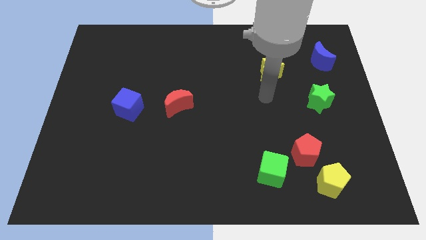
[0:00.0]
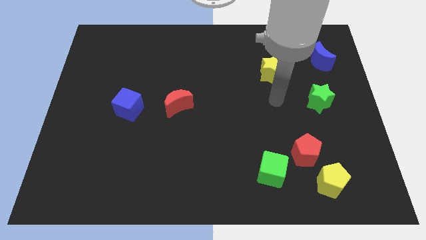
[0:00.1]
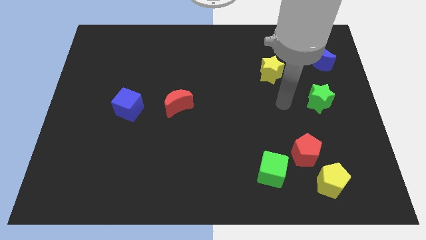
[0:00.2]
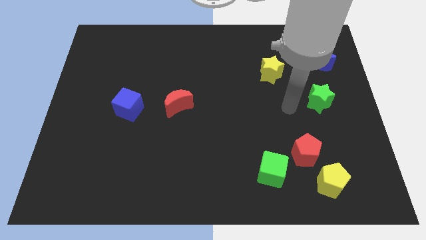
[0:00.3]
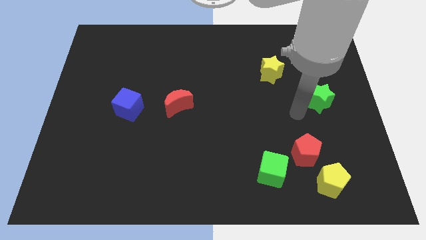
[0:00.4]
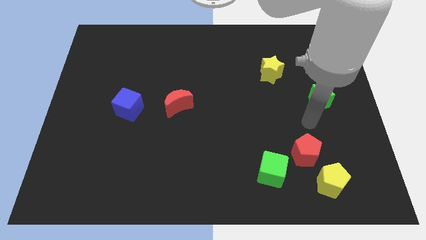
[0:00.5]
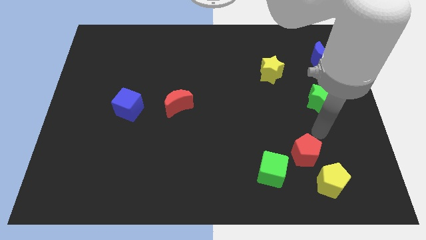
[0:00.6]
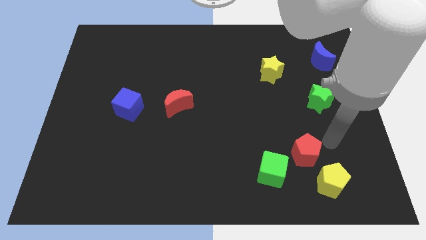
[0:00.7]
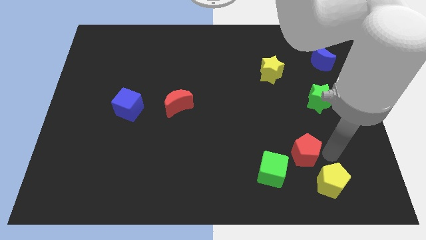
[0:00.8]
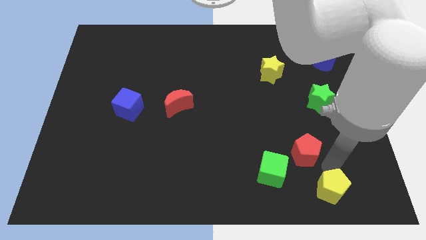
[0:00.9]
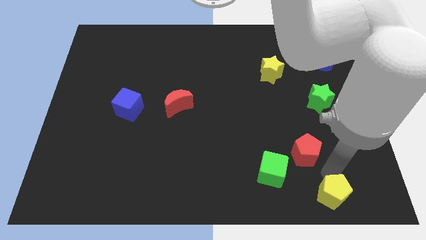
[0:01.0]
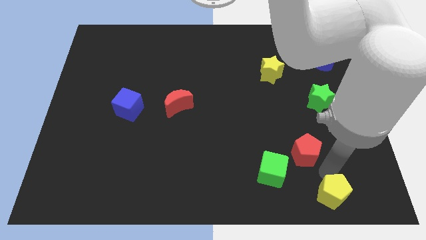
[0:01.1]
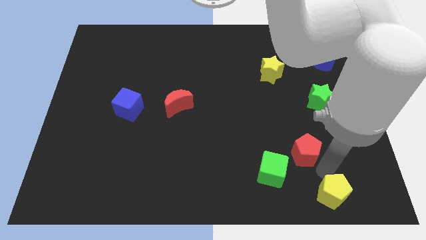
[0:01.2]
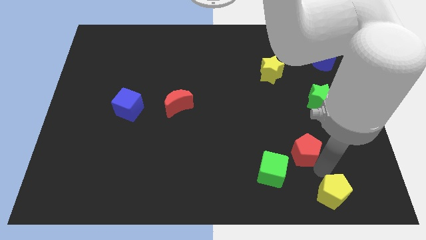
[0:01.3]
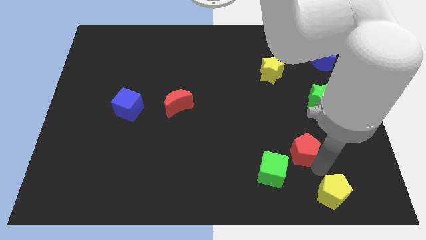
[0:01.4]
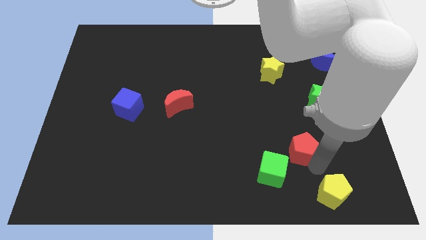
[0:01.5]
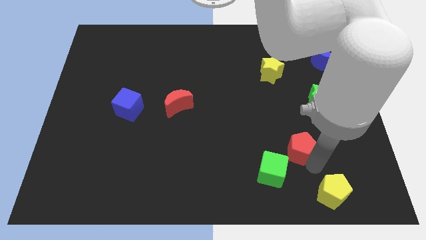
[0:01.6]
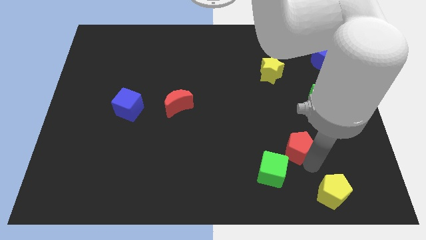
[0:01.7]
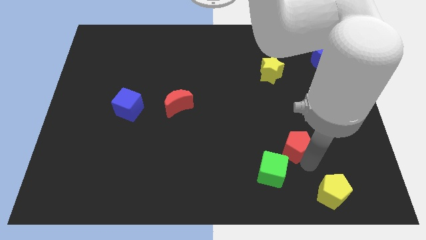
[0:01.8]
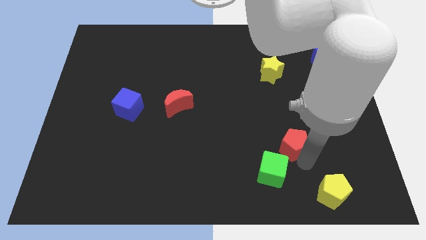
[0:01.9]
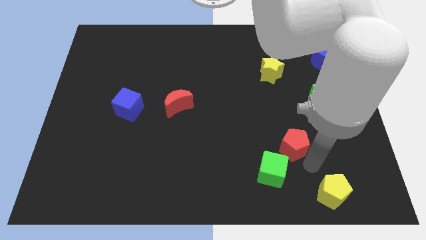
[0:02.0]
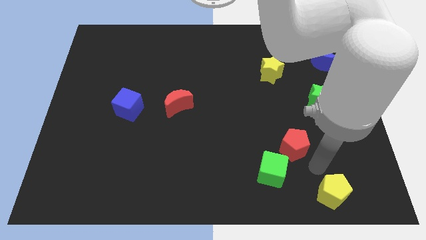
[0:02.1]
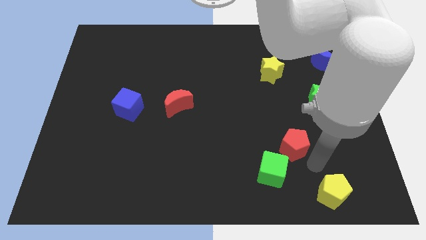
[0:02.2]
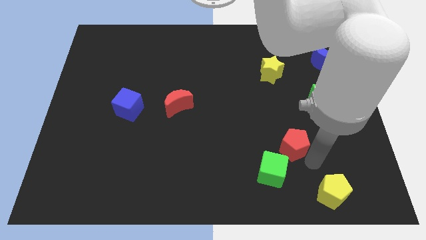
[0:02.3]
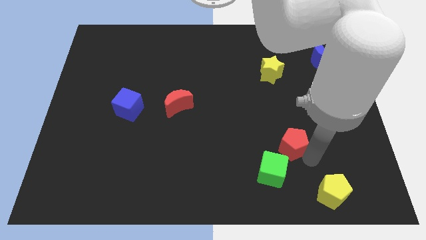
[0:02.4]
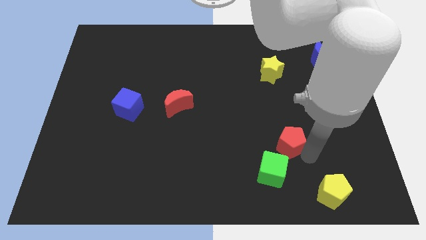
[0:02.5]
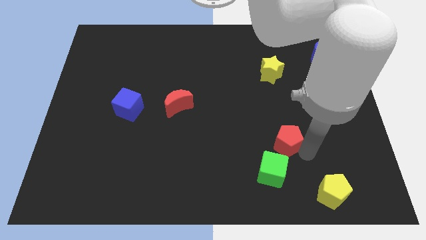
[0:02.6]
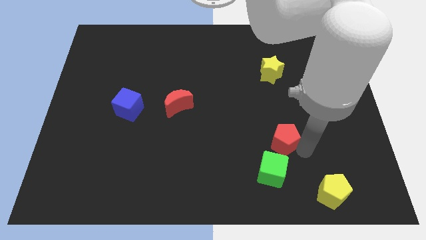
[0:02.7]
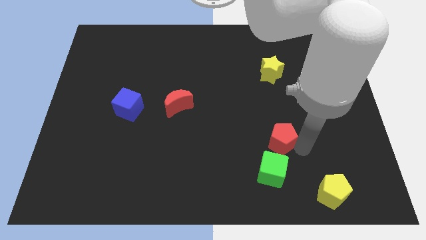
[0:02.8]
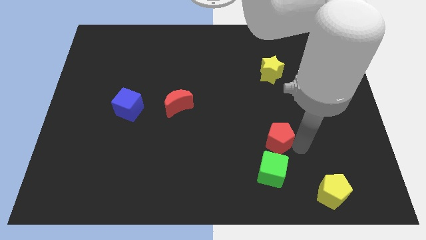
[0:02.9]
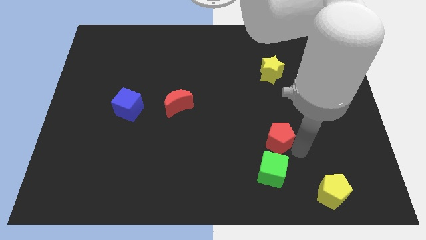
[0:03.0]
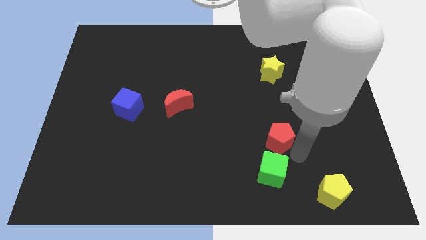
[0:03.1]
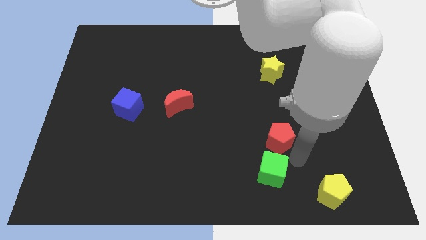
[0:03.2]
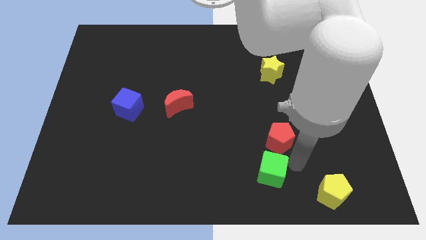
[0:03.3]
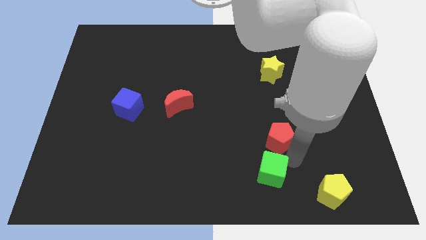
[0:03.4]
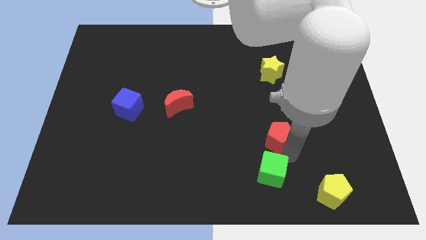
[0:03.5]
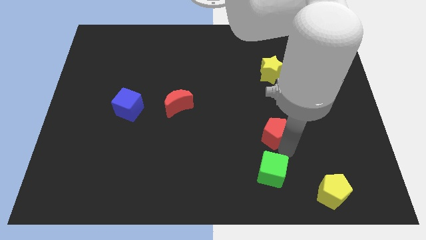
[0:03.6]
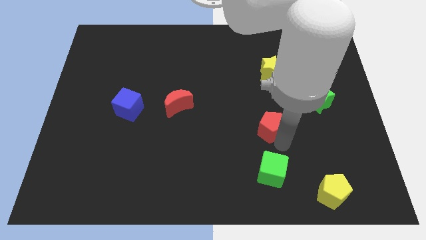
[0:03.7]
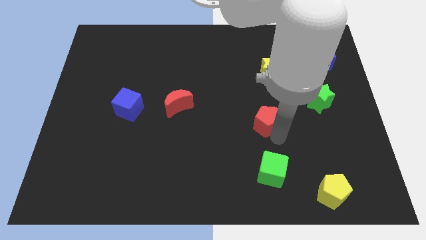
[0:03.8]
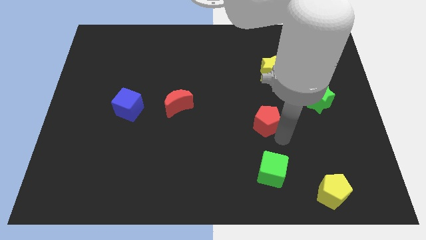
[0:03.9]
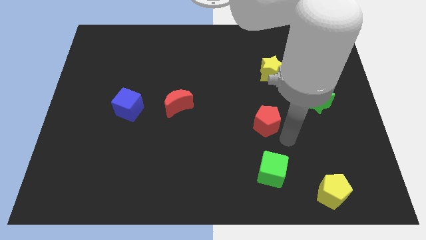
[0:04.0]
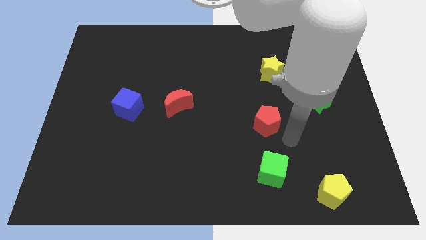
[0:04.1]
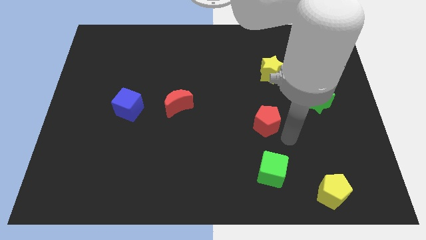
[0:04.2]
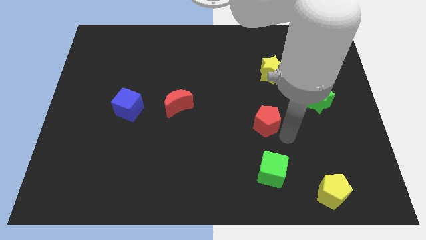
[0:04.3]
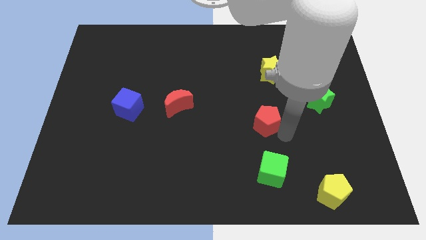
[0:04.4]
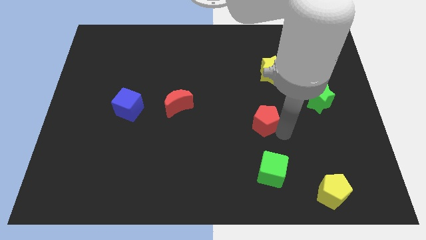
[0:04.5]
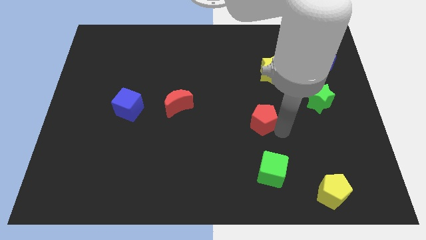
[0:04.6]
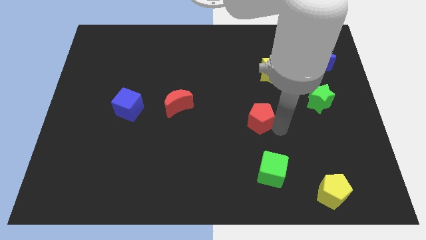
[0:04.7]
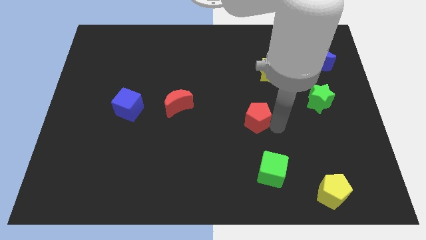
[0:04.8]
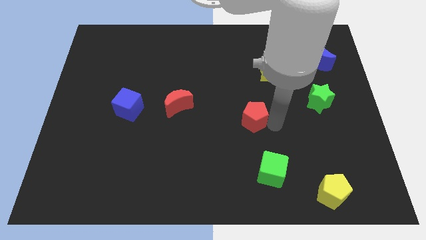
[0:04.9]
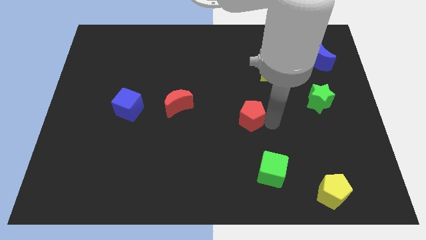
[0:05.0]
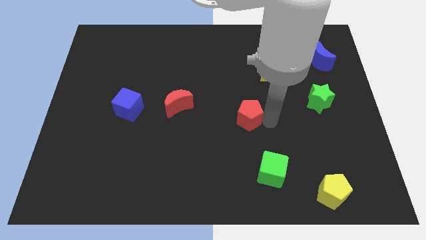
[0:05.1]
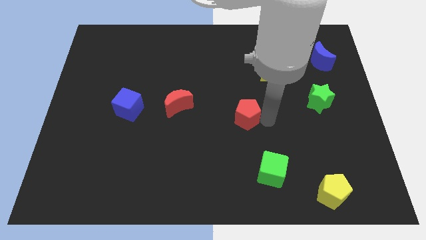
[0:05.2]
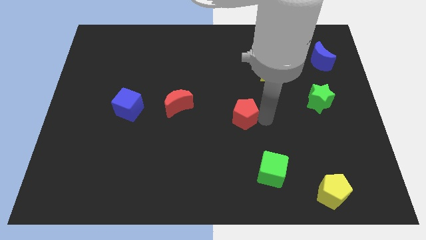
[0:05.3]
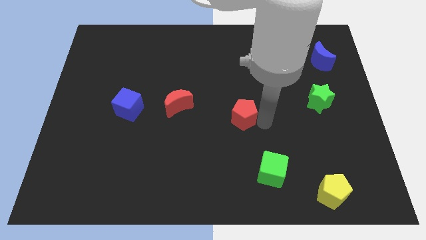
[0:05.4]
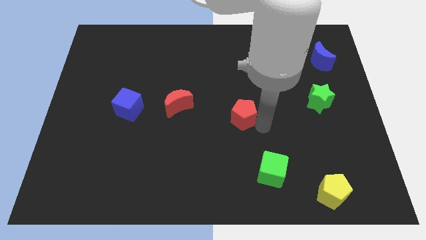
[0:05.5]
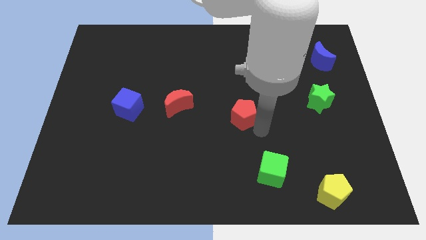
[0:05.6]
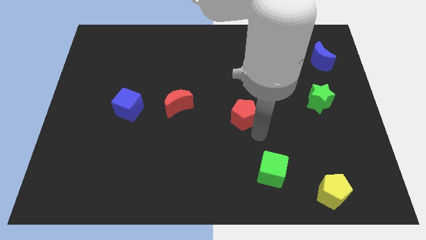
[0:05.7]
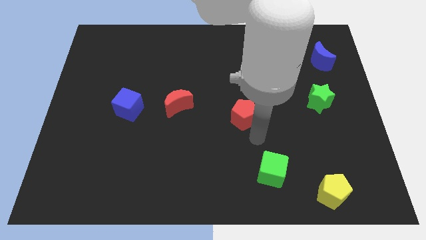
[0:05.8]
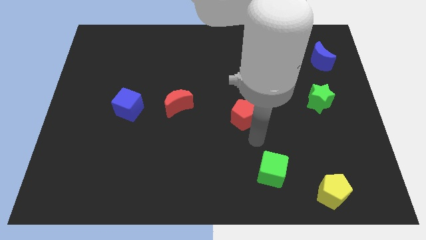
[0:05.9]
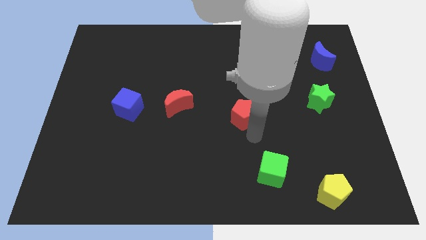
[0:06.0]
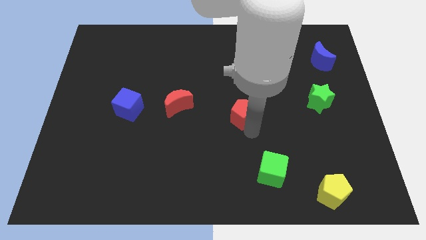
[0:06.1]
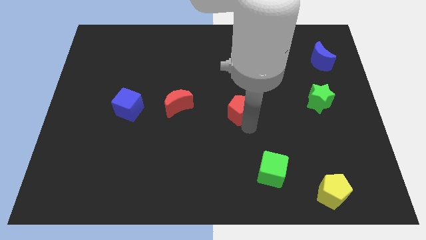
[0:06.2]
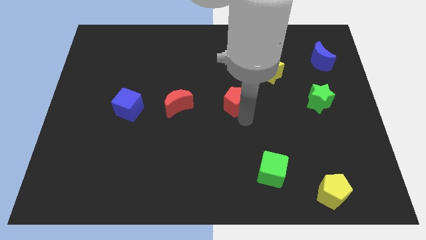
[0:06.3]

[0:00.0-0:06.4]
push the red pentagon diagonally up and to the left

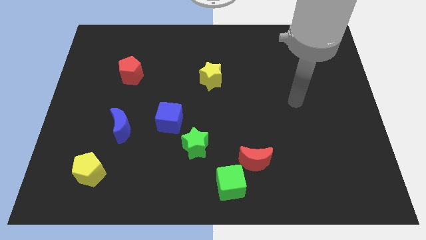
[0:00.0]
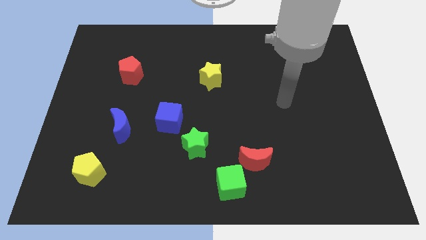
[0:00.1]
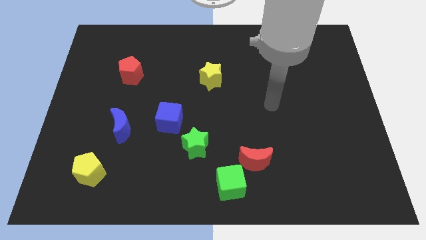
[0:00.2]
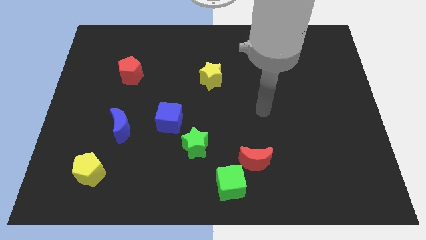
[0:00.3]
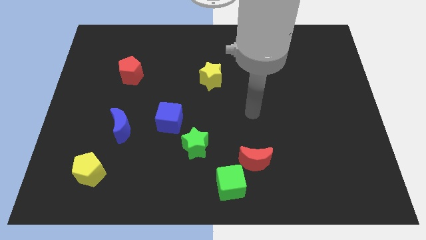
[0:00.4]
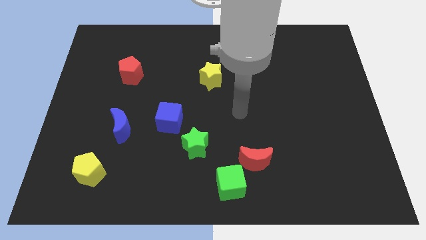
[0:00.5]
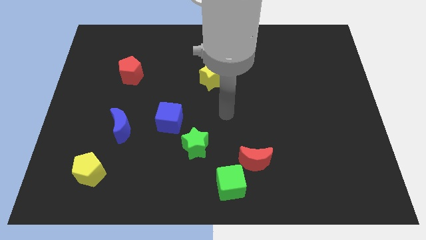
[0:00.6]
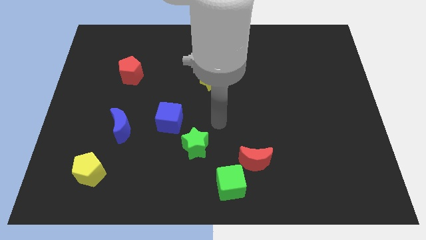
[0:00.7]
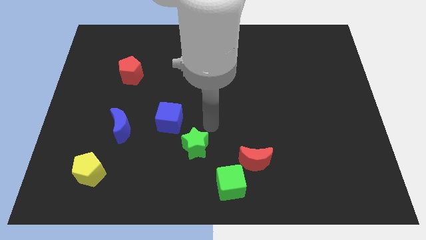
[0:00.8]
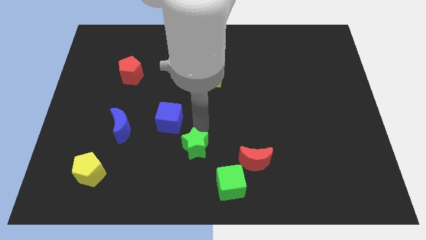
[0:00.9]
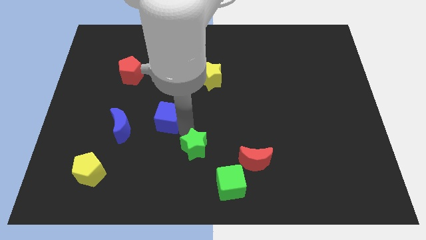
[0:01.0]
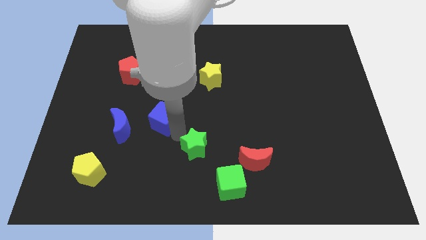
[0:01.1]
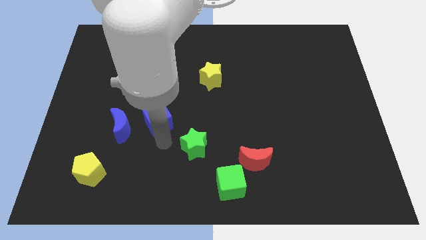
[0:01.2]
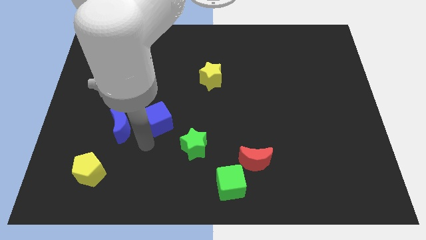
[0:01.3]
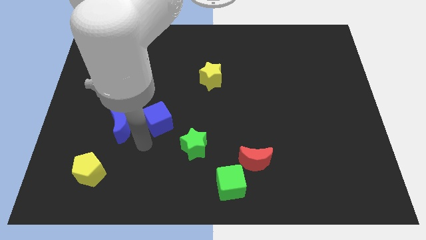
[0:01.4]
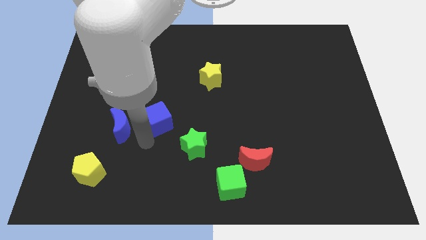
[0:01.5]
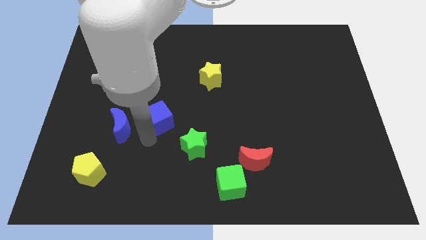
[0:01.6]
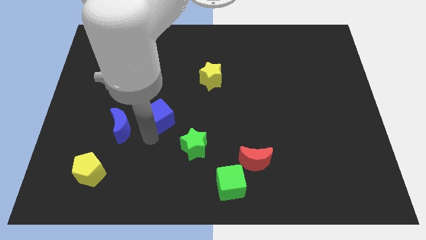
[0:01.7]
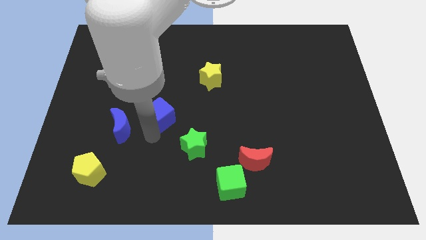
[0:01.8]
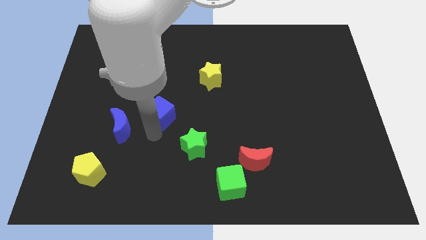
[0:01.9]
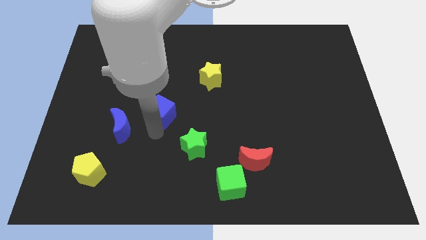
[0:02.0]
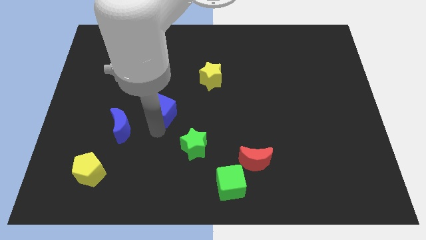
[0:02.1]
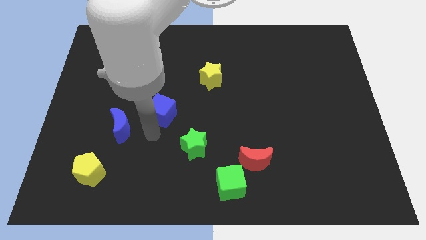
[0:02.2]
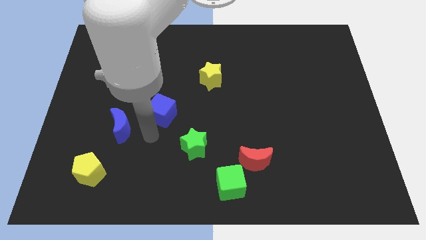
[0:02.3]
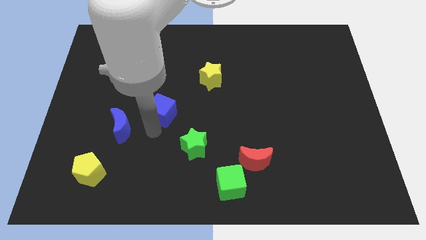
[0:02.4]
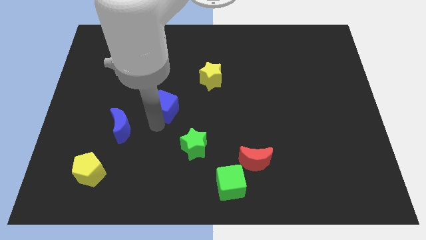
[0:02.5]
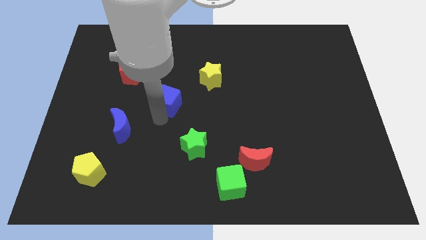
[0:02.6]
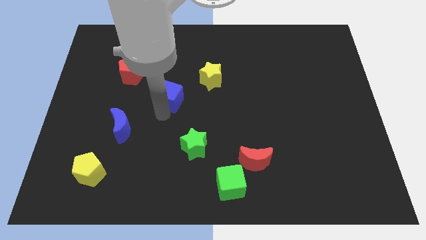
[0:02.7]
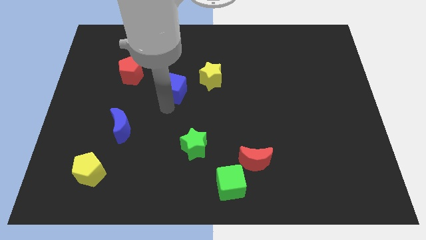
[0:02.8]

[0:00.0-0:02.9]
push the blue cube up slightly
